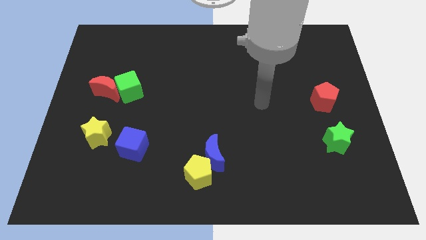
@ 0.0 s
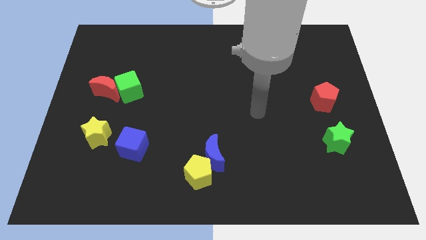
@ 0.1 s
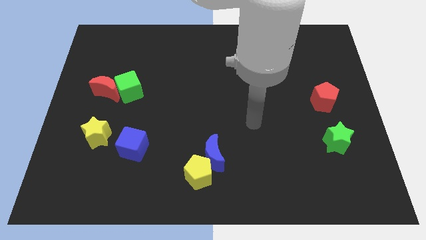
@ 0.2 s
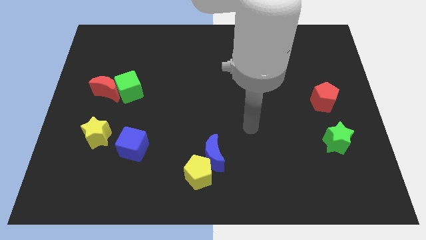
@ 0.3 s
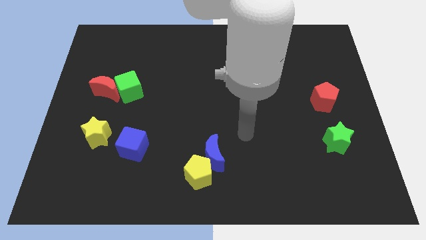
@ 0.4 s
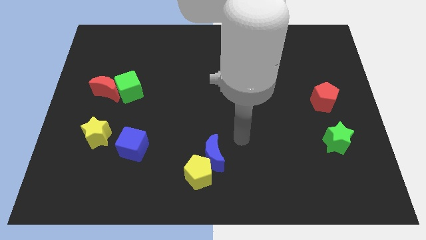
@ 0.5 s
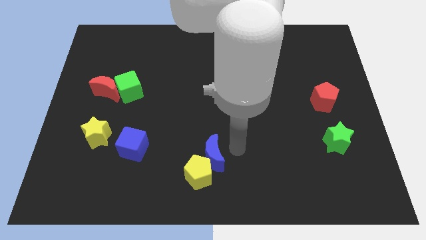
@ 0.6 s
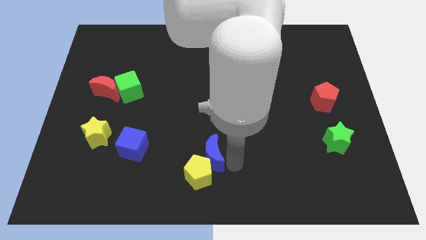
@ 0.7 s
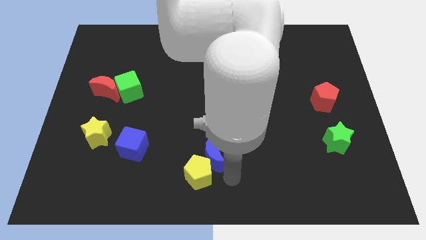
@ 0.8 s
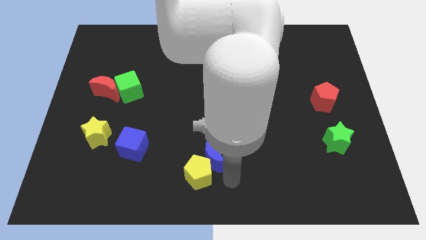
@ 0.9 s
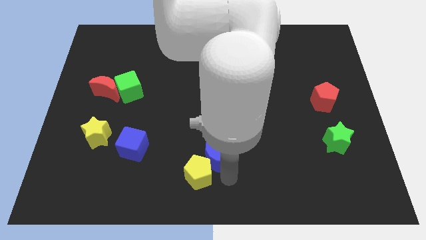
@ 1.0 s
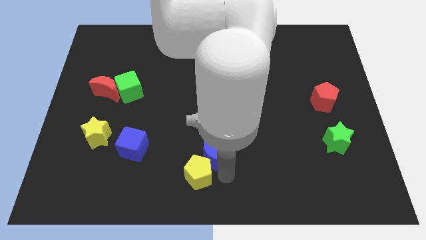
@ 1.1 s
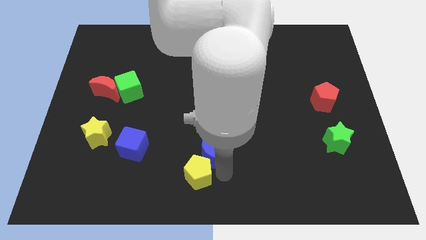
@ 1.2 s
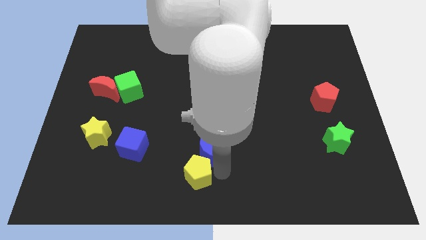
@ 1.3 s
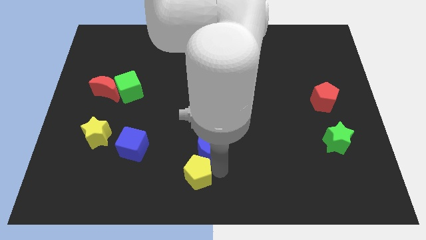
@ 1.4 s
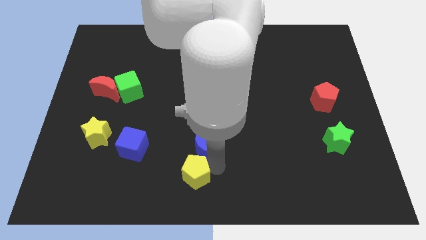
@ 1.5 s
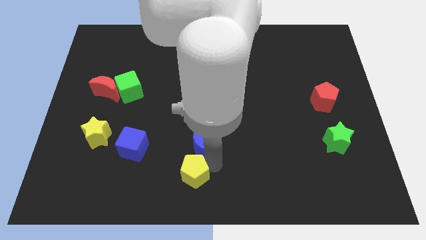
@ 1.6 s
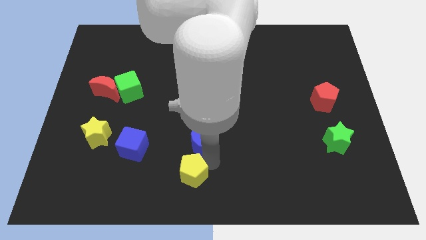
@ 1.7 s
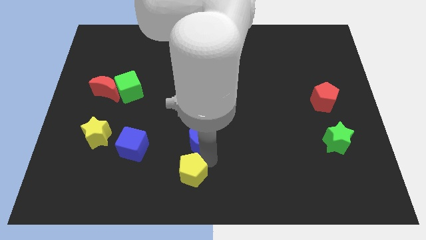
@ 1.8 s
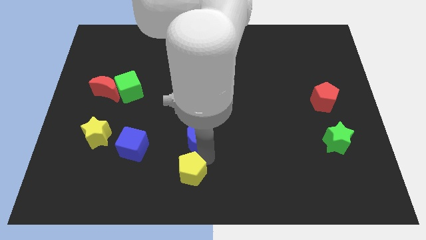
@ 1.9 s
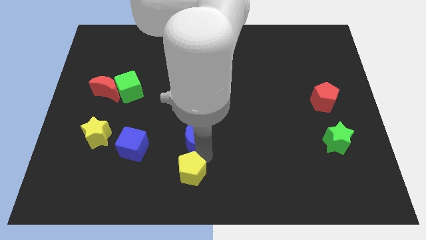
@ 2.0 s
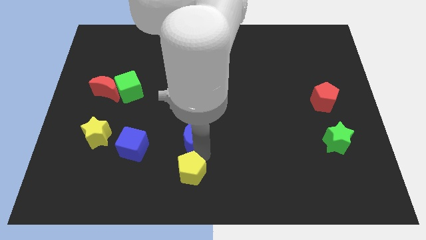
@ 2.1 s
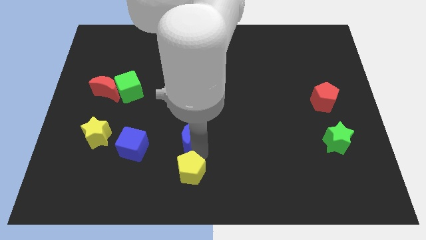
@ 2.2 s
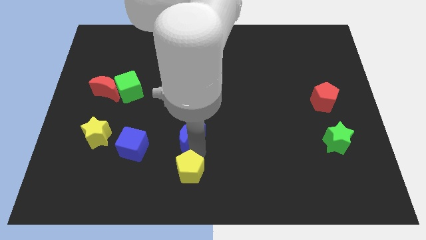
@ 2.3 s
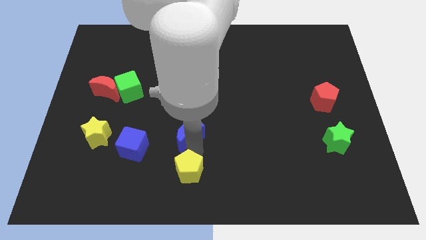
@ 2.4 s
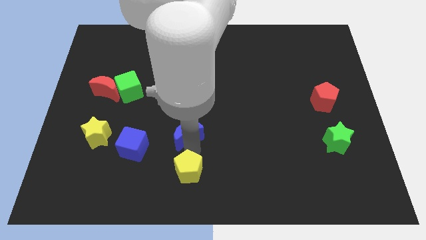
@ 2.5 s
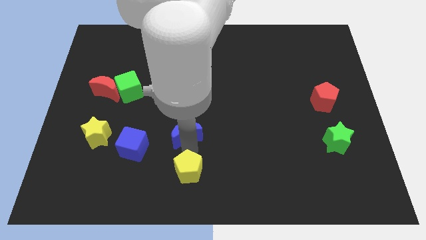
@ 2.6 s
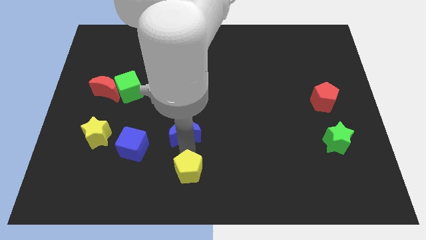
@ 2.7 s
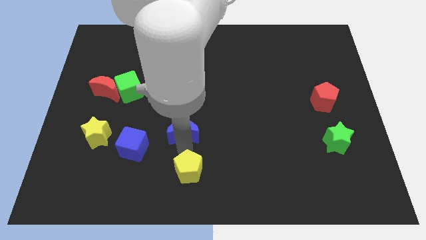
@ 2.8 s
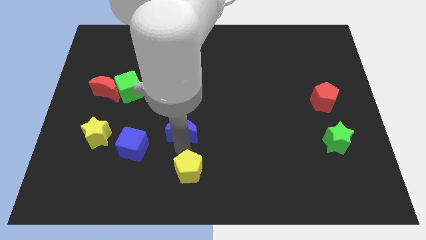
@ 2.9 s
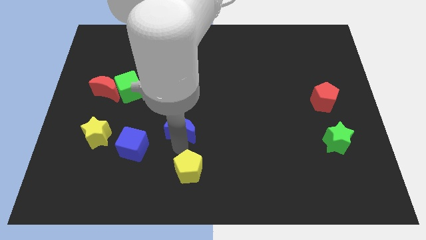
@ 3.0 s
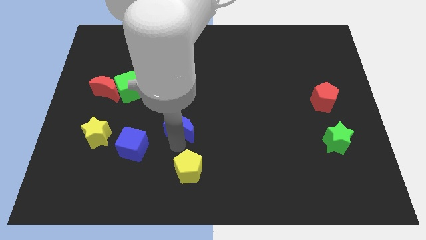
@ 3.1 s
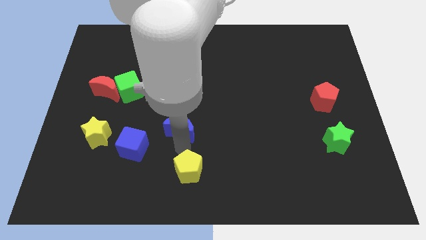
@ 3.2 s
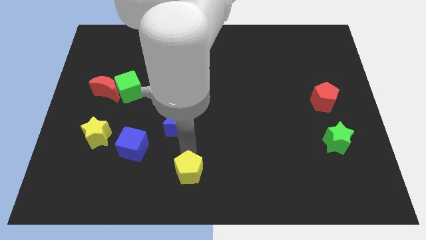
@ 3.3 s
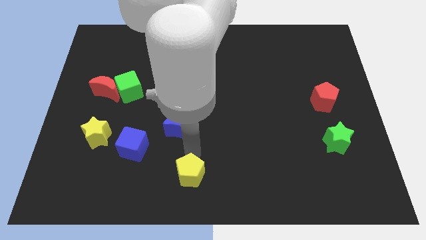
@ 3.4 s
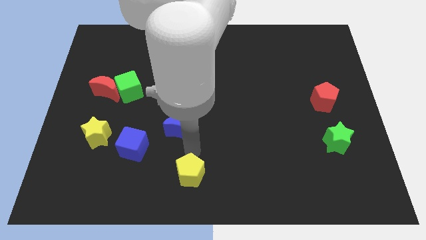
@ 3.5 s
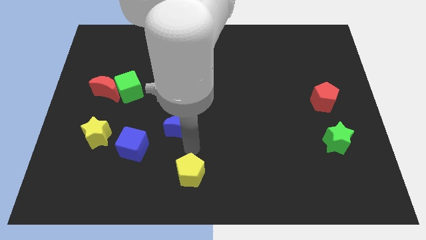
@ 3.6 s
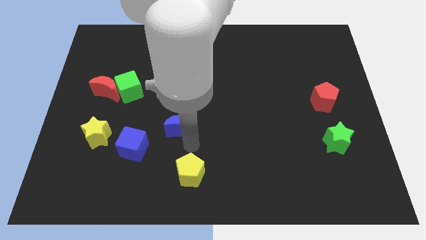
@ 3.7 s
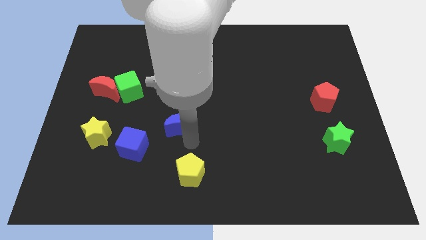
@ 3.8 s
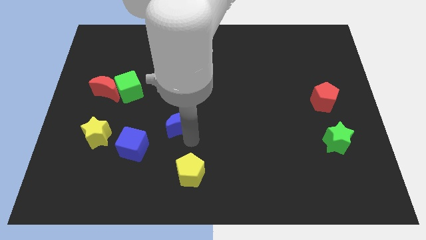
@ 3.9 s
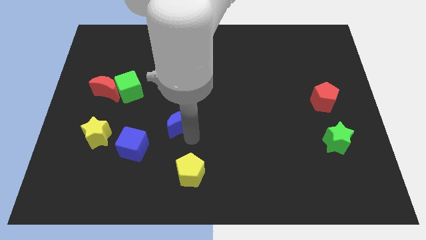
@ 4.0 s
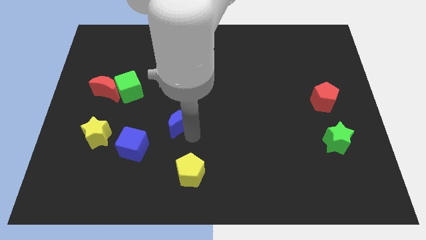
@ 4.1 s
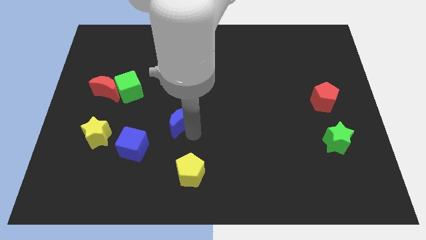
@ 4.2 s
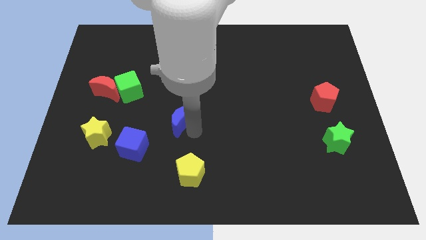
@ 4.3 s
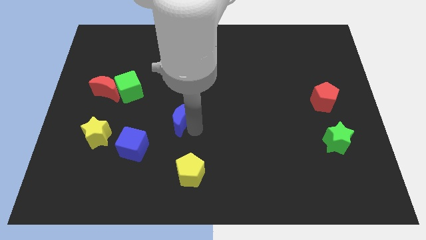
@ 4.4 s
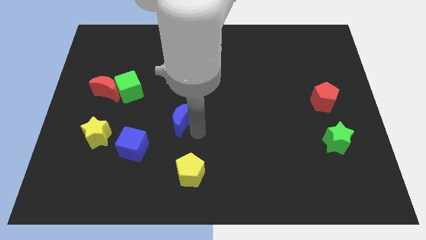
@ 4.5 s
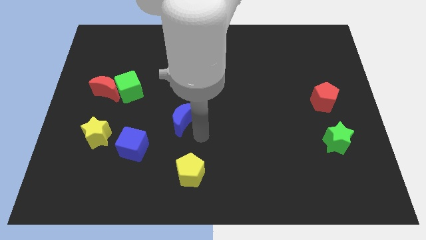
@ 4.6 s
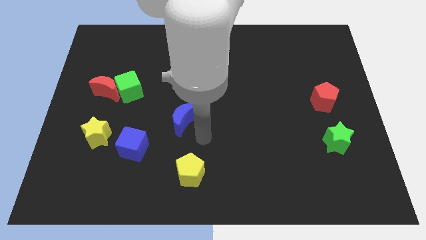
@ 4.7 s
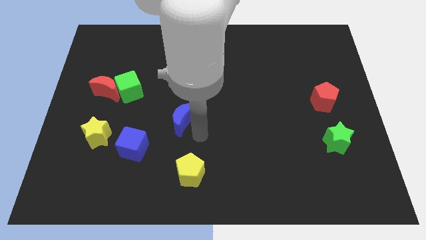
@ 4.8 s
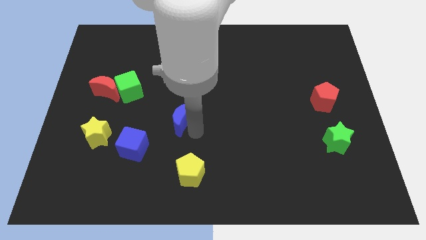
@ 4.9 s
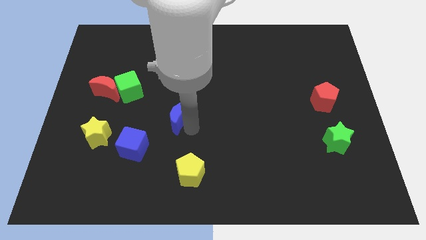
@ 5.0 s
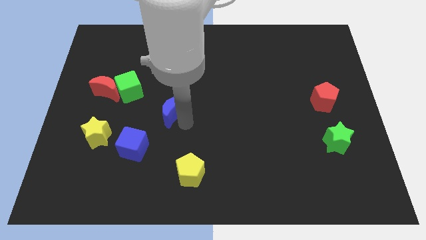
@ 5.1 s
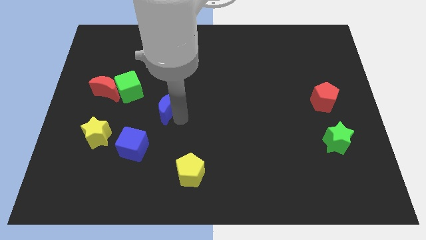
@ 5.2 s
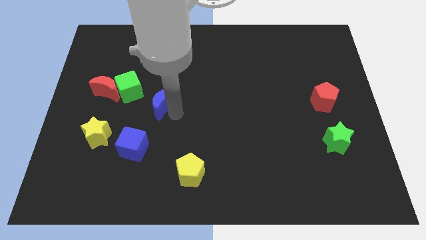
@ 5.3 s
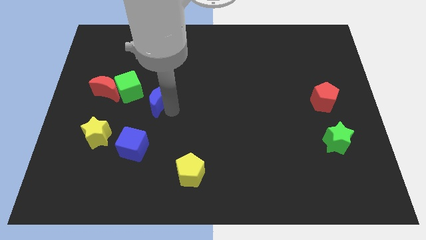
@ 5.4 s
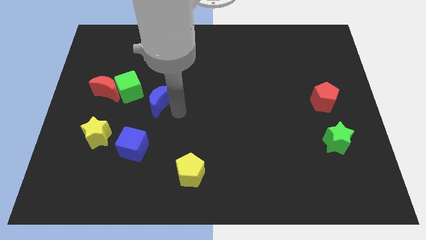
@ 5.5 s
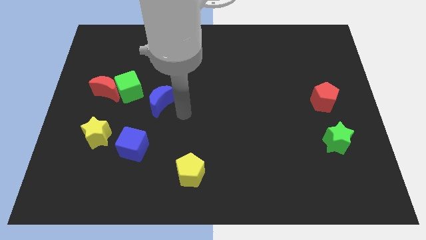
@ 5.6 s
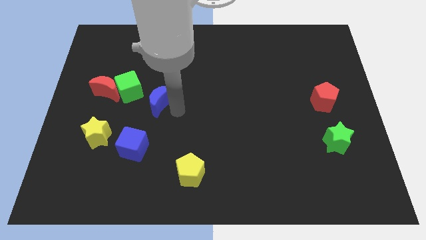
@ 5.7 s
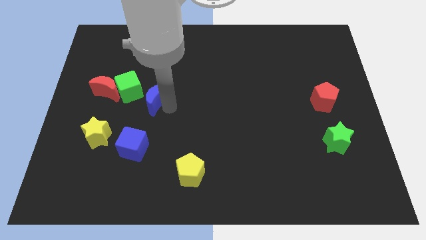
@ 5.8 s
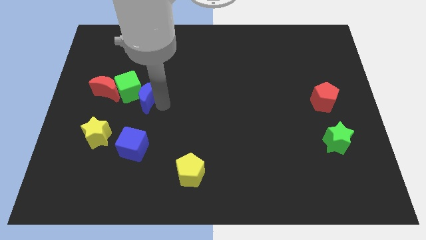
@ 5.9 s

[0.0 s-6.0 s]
slide the blue moon to the green cube
